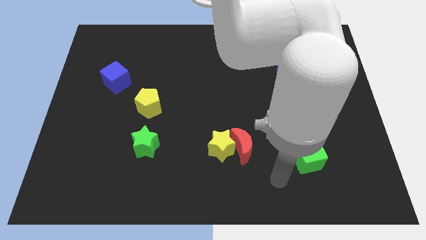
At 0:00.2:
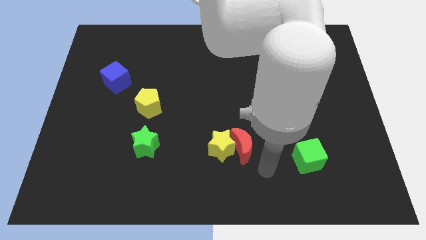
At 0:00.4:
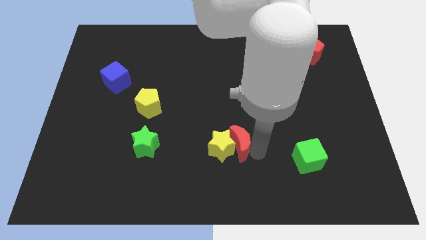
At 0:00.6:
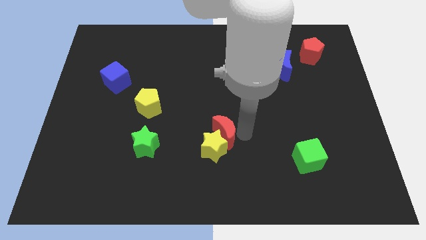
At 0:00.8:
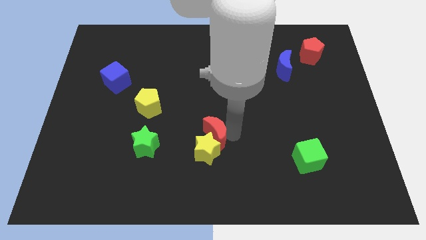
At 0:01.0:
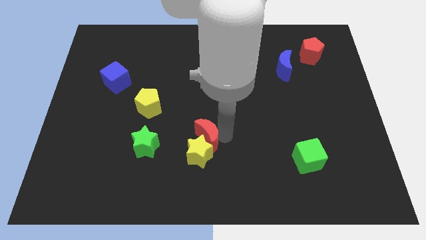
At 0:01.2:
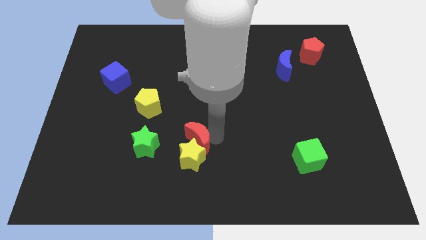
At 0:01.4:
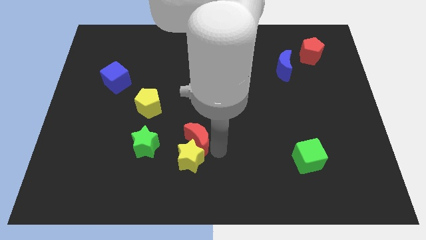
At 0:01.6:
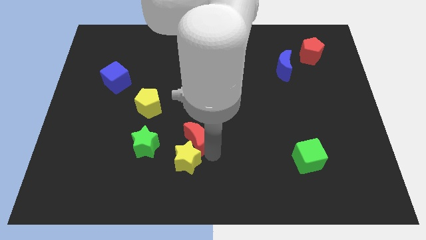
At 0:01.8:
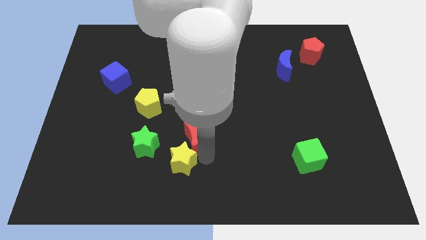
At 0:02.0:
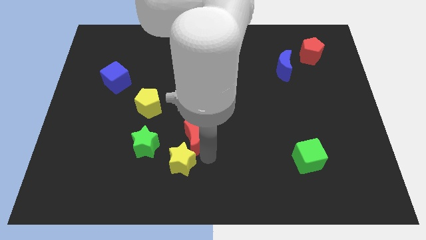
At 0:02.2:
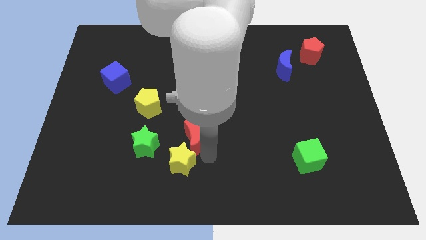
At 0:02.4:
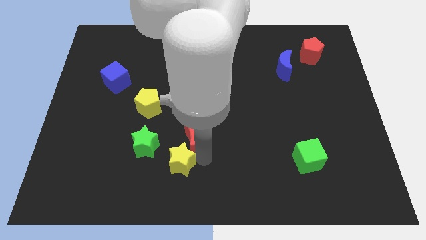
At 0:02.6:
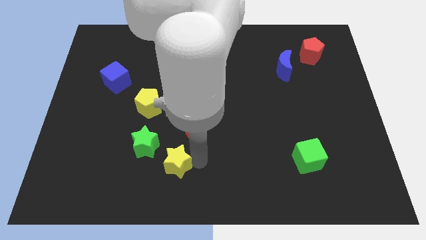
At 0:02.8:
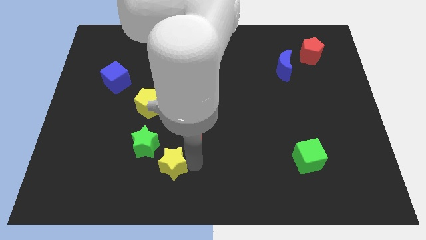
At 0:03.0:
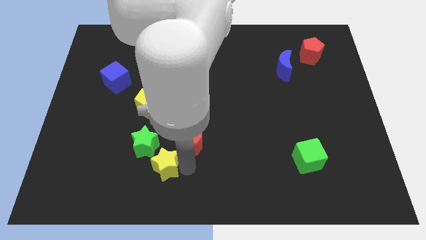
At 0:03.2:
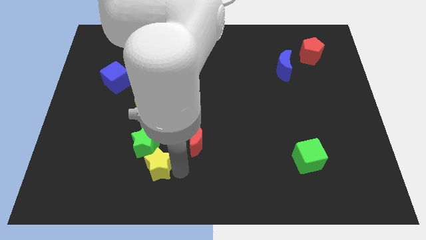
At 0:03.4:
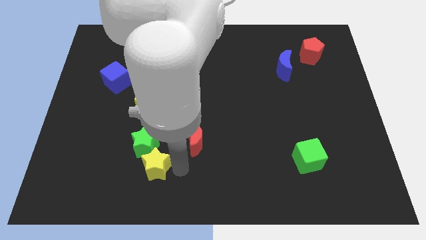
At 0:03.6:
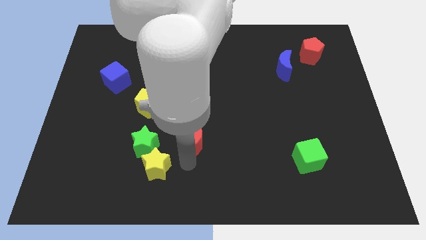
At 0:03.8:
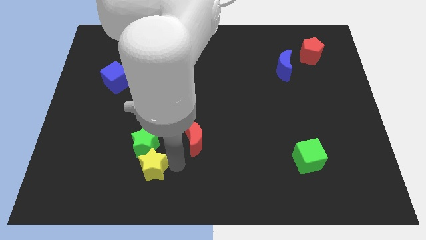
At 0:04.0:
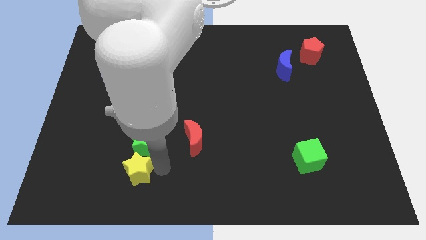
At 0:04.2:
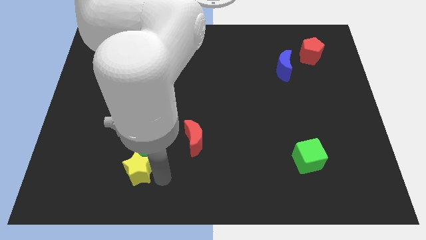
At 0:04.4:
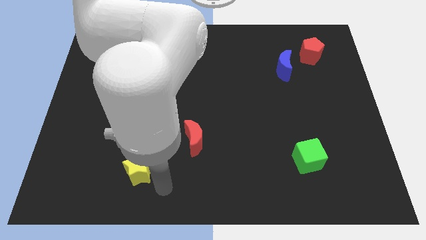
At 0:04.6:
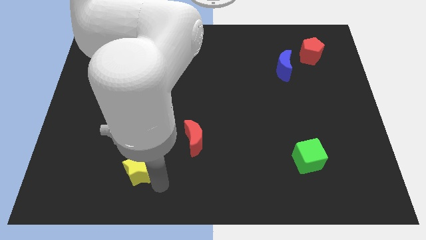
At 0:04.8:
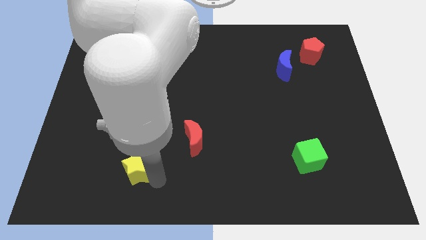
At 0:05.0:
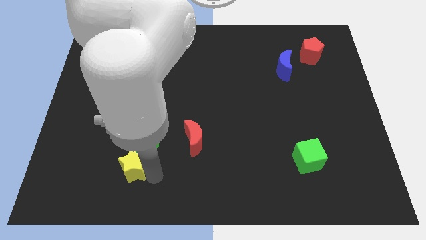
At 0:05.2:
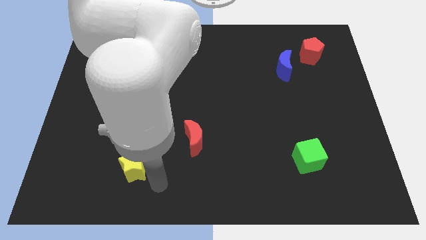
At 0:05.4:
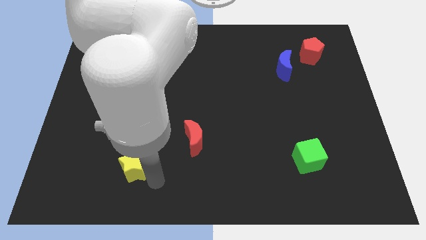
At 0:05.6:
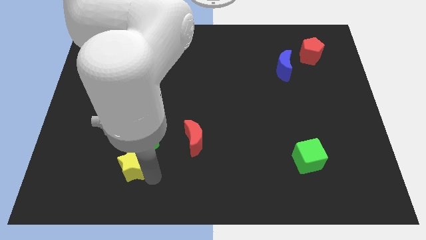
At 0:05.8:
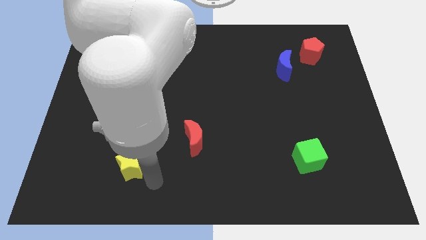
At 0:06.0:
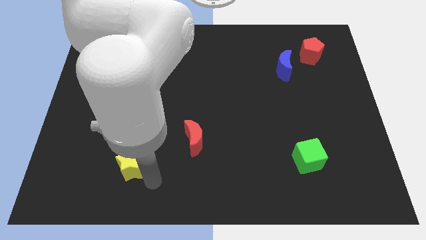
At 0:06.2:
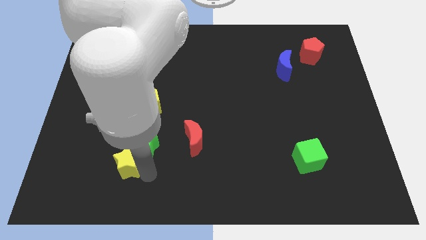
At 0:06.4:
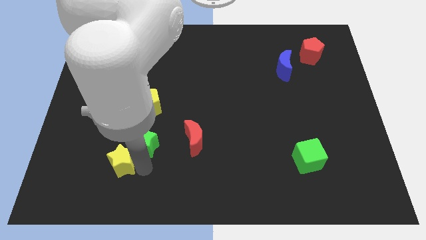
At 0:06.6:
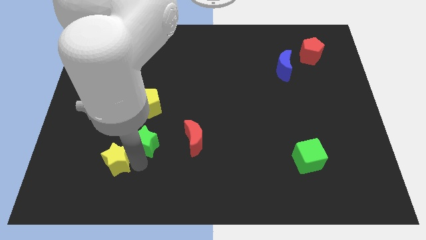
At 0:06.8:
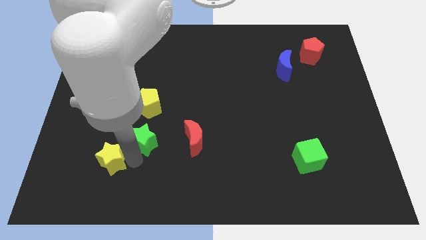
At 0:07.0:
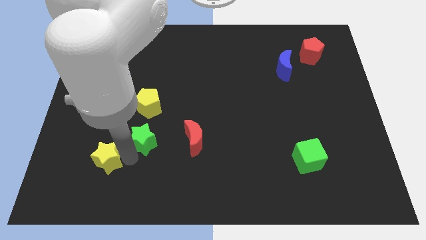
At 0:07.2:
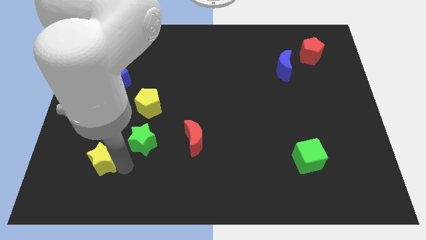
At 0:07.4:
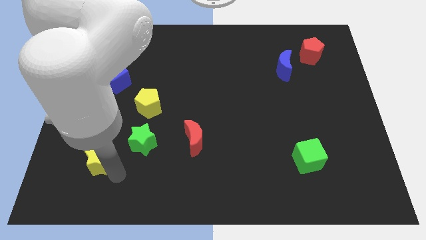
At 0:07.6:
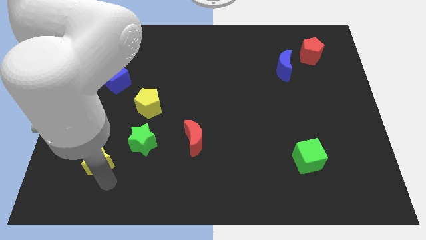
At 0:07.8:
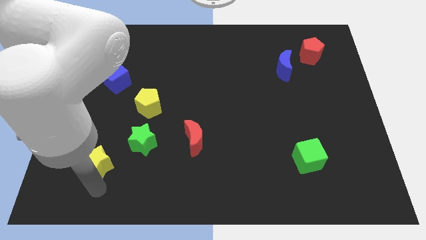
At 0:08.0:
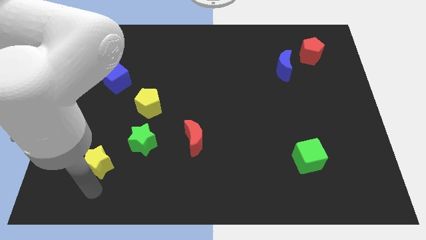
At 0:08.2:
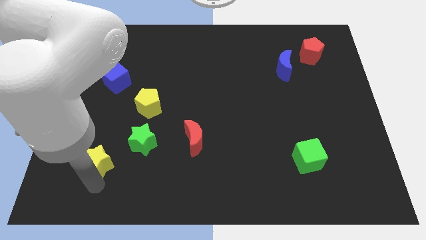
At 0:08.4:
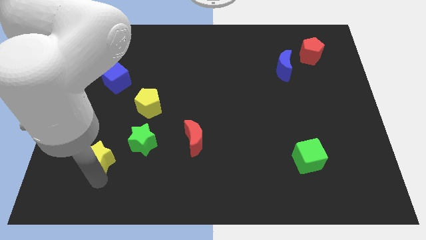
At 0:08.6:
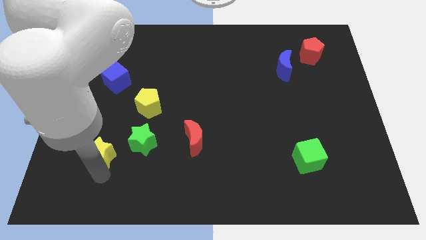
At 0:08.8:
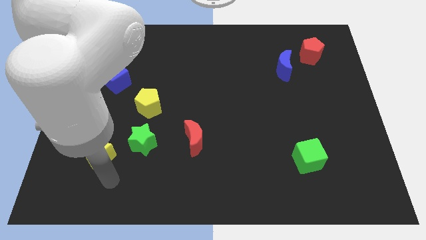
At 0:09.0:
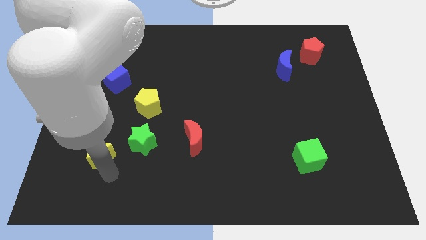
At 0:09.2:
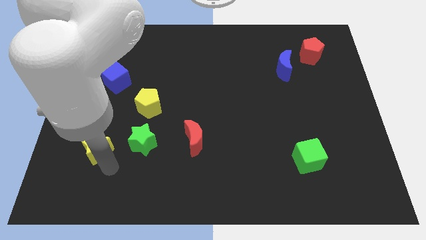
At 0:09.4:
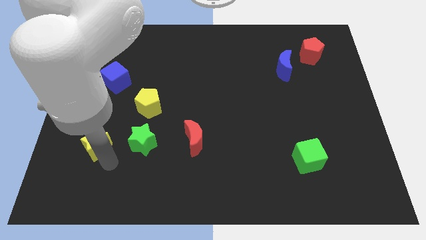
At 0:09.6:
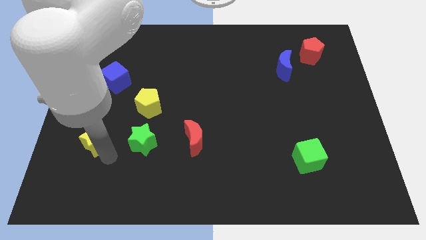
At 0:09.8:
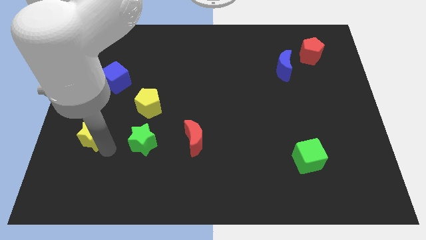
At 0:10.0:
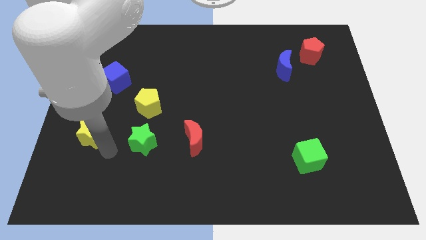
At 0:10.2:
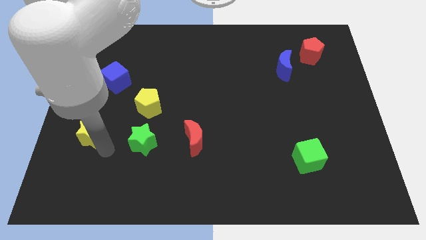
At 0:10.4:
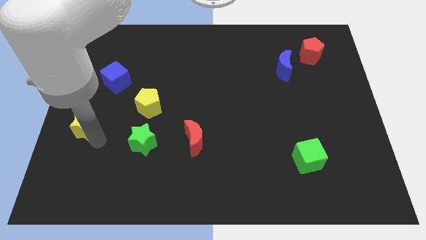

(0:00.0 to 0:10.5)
slide the yellow star to the left side

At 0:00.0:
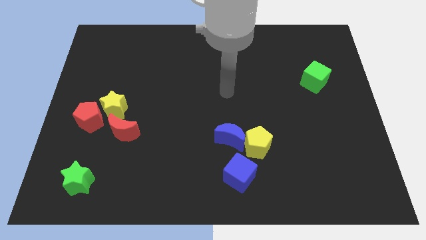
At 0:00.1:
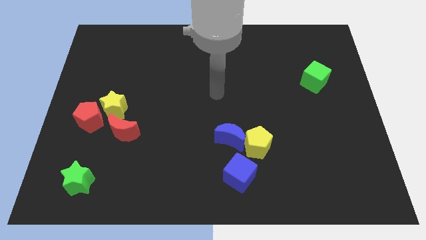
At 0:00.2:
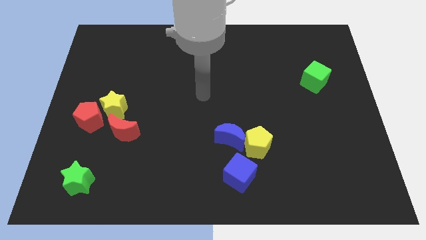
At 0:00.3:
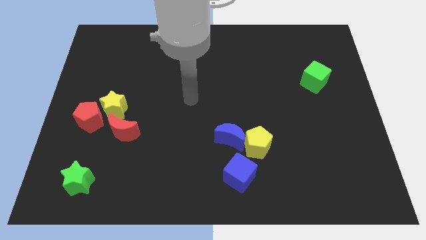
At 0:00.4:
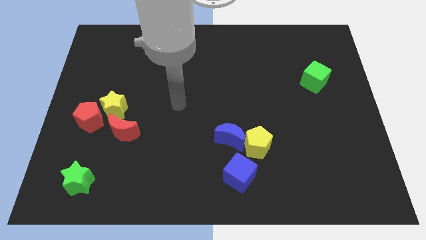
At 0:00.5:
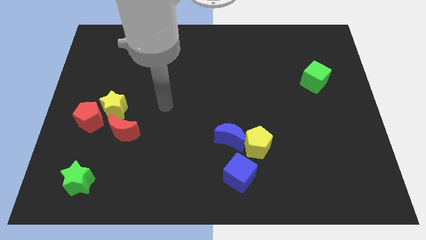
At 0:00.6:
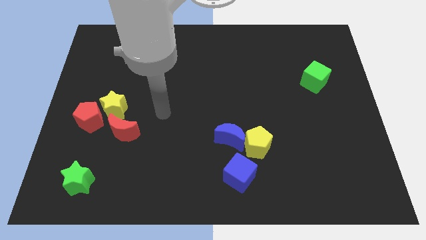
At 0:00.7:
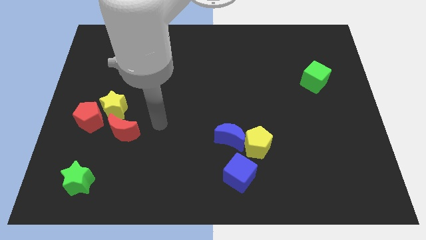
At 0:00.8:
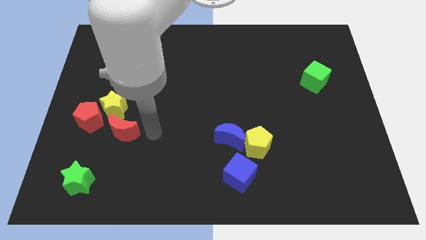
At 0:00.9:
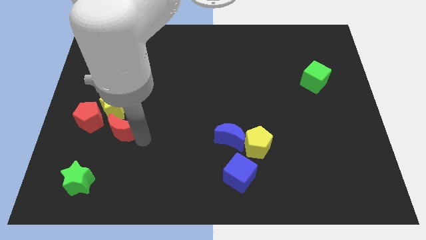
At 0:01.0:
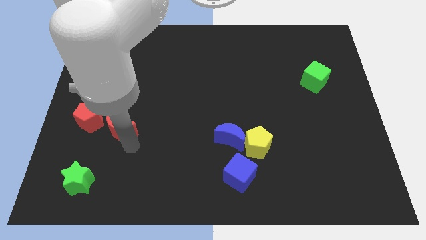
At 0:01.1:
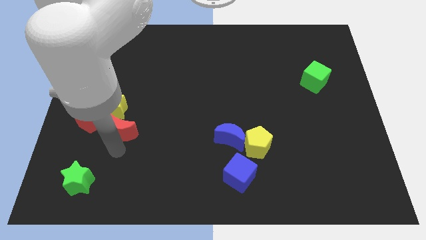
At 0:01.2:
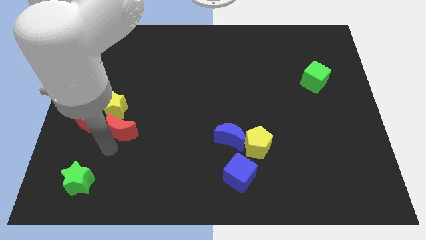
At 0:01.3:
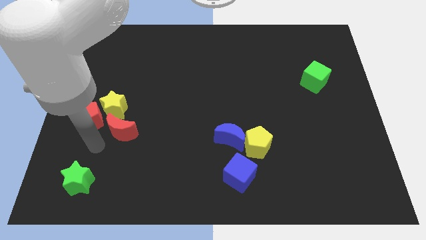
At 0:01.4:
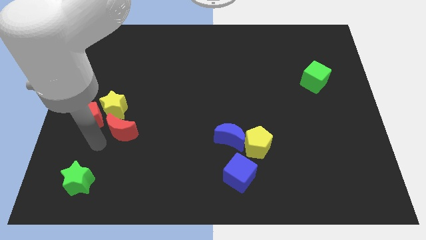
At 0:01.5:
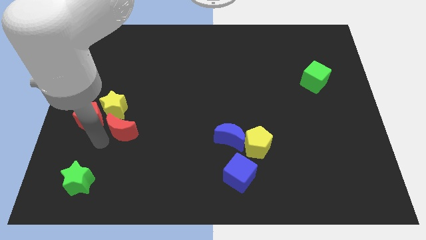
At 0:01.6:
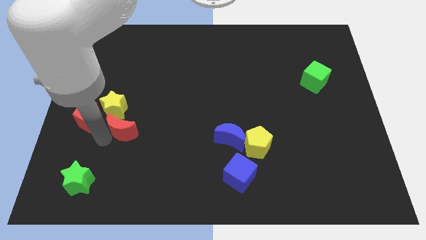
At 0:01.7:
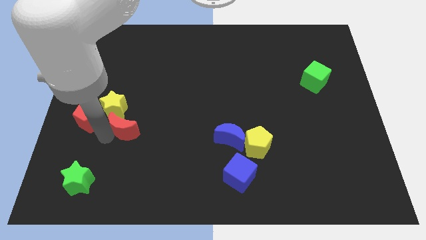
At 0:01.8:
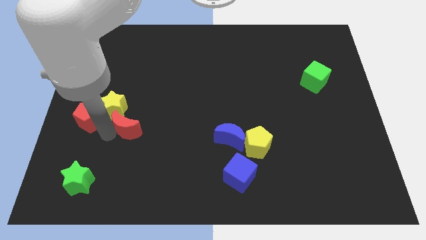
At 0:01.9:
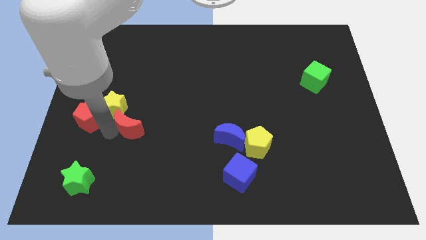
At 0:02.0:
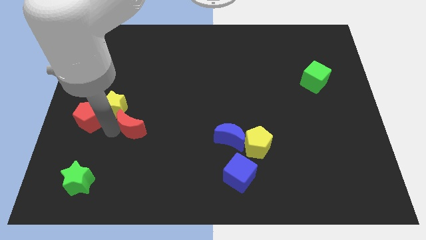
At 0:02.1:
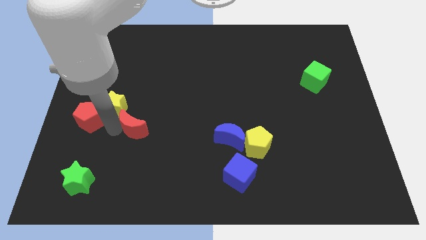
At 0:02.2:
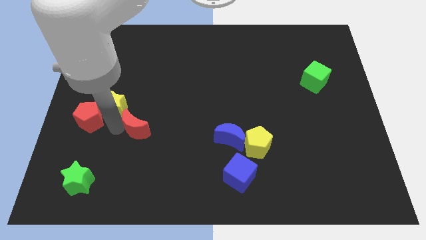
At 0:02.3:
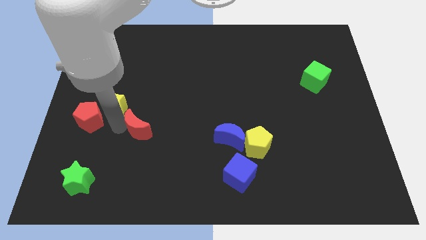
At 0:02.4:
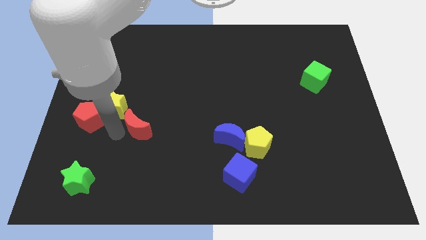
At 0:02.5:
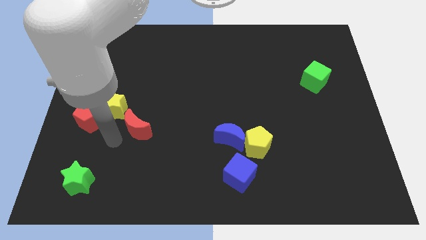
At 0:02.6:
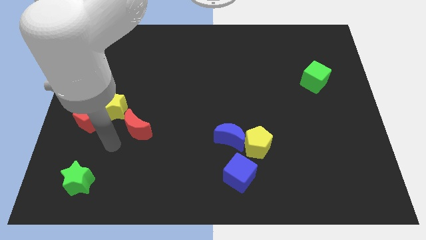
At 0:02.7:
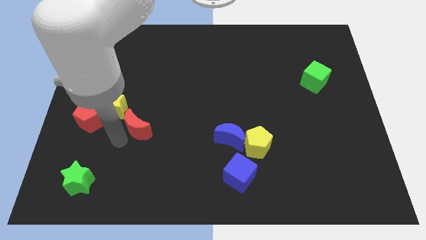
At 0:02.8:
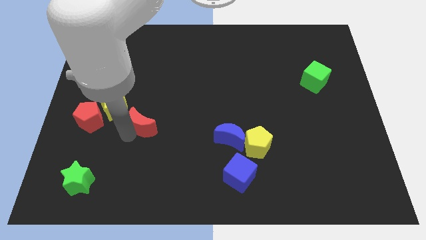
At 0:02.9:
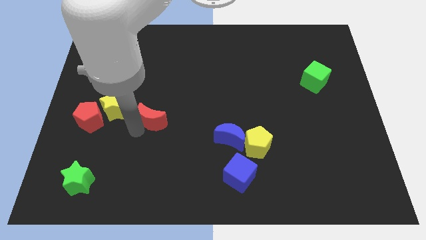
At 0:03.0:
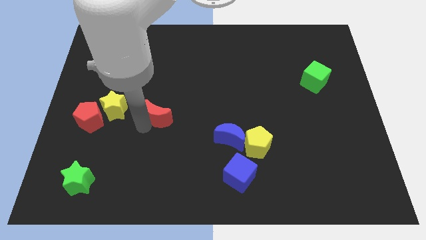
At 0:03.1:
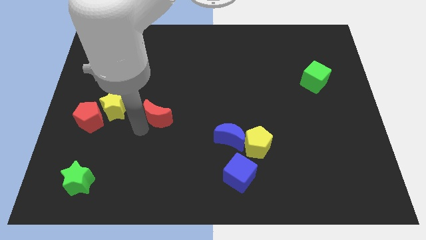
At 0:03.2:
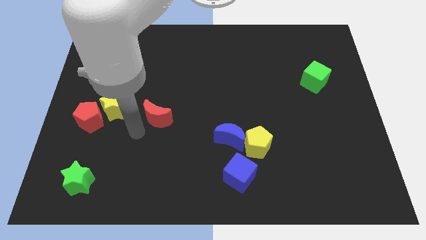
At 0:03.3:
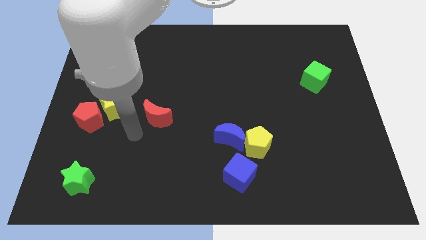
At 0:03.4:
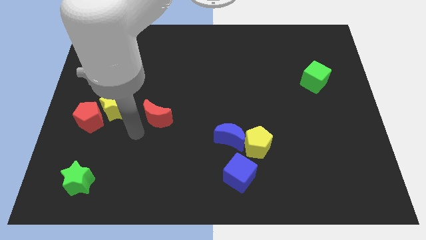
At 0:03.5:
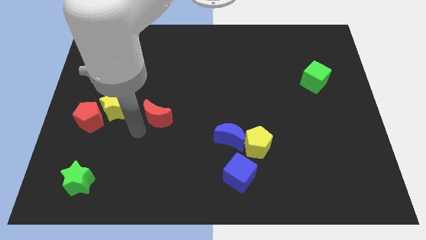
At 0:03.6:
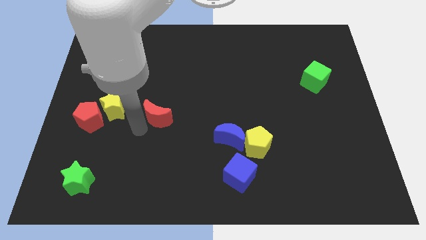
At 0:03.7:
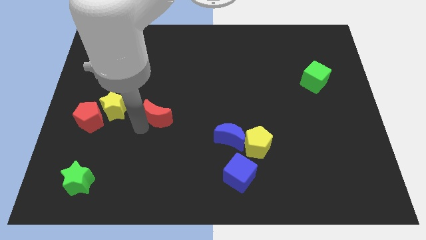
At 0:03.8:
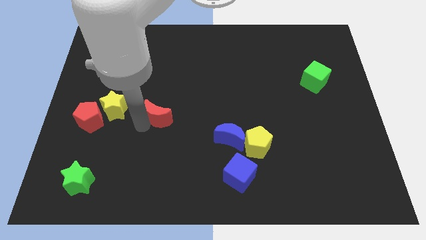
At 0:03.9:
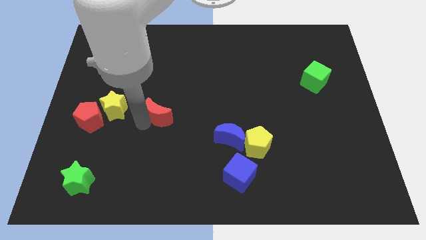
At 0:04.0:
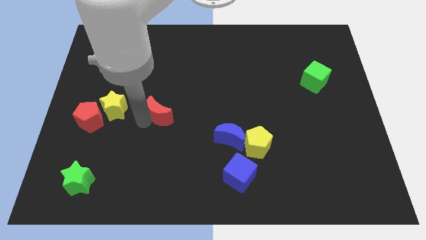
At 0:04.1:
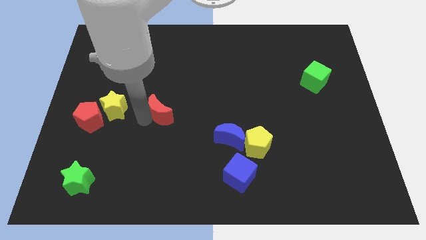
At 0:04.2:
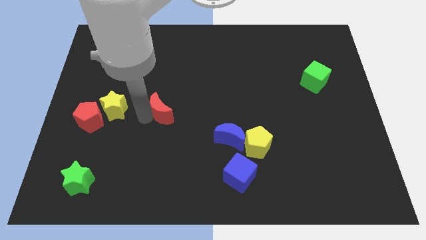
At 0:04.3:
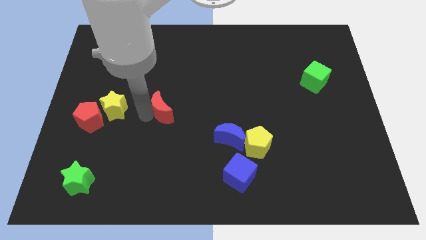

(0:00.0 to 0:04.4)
put the red moon to the middle of the board
